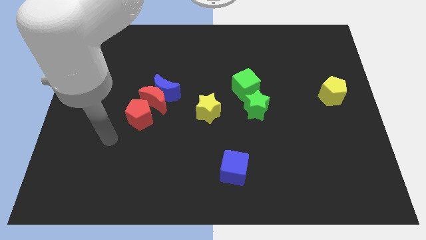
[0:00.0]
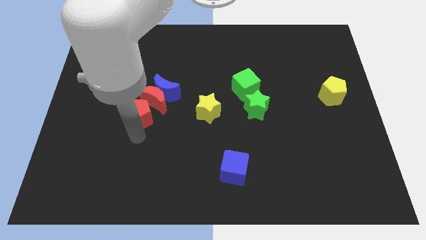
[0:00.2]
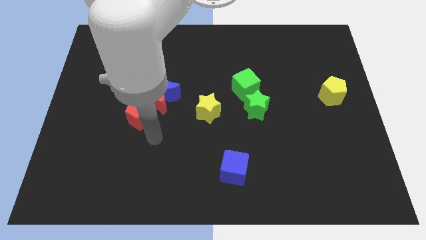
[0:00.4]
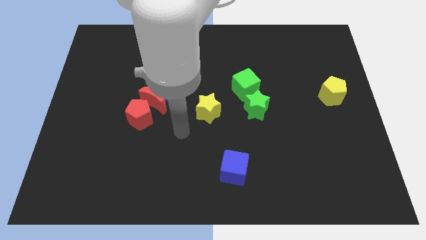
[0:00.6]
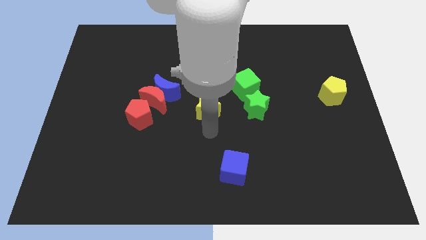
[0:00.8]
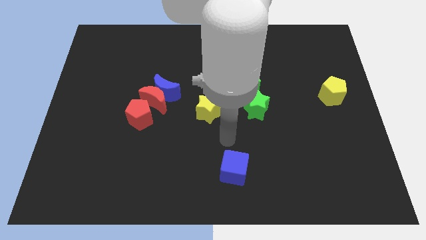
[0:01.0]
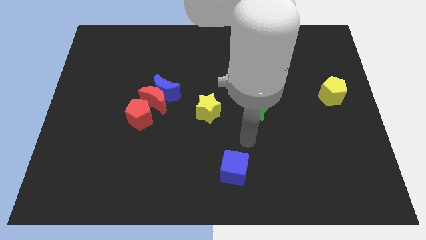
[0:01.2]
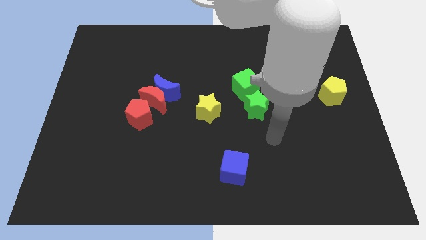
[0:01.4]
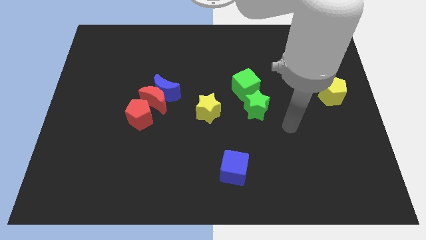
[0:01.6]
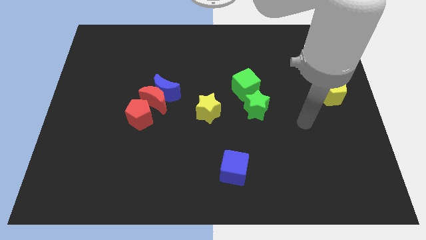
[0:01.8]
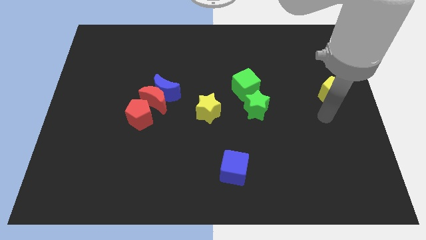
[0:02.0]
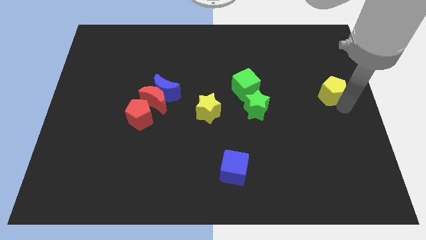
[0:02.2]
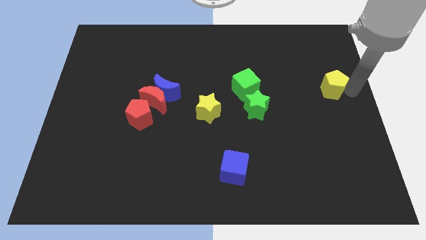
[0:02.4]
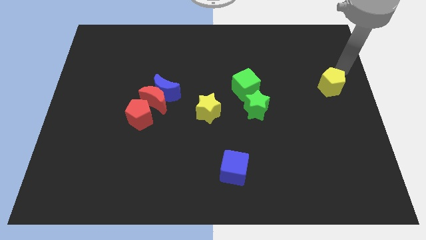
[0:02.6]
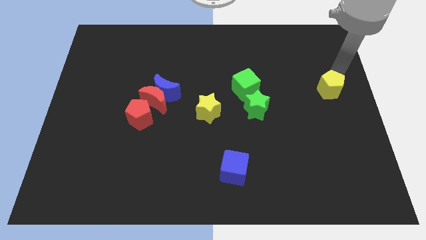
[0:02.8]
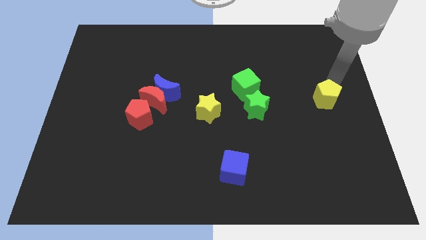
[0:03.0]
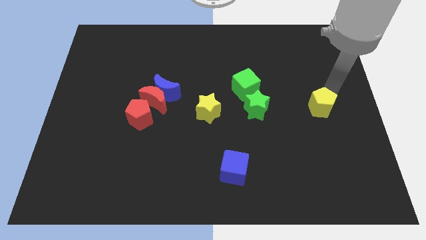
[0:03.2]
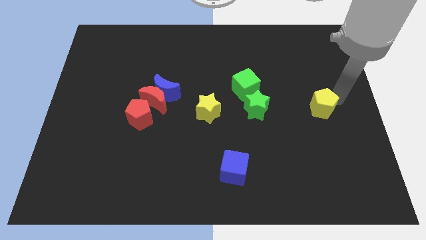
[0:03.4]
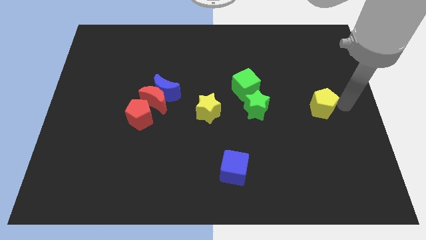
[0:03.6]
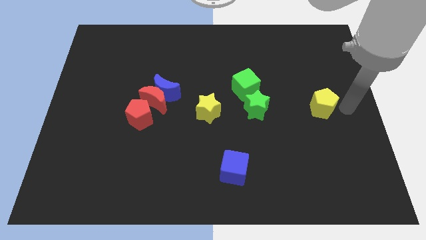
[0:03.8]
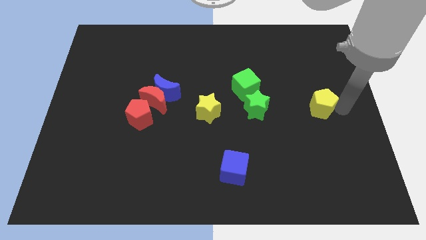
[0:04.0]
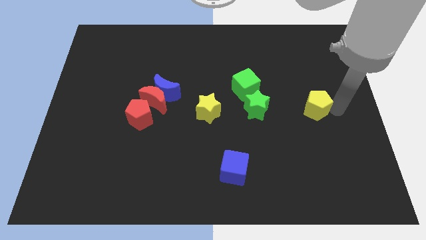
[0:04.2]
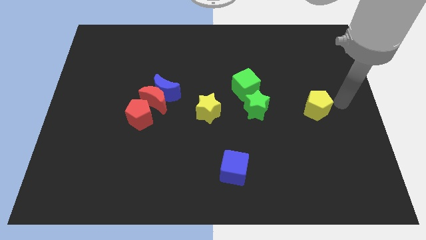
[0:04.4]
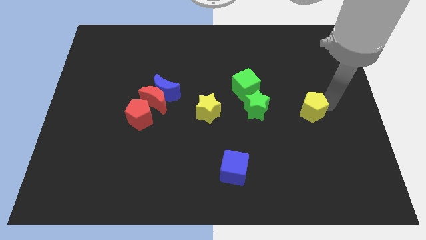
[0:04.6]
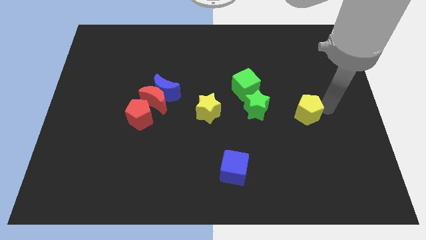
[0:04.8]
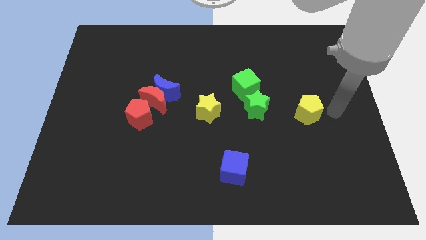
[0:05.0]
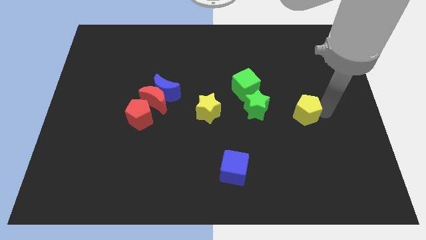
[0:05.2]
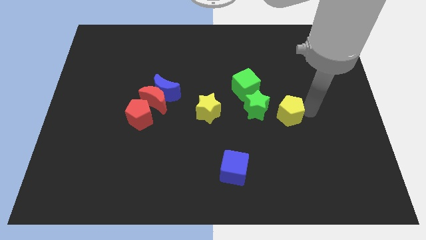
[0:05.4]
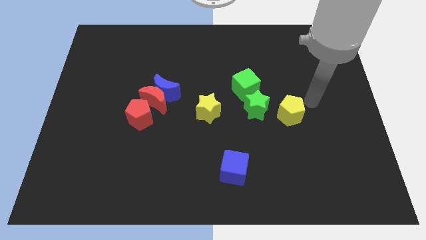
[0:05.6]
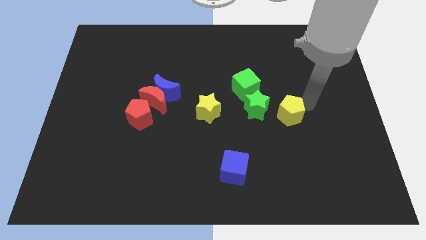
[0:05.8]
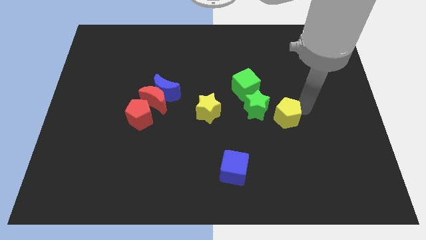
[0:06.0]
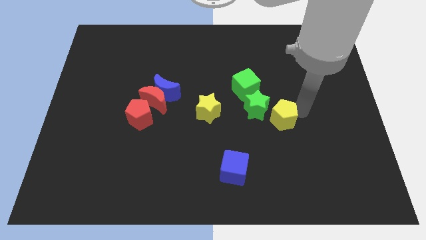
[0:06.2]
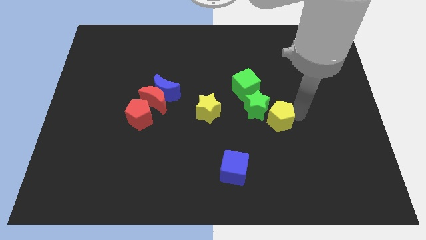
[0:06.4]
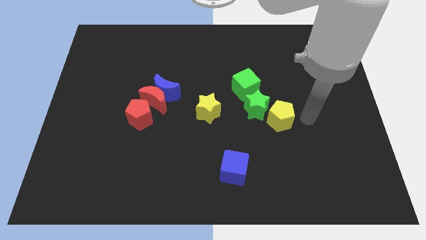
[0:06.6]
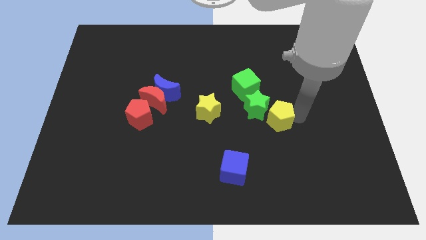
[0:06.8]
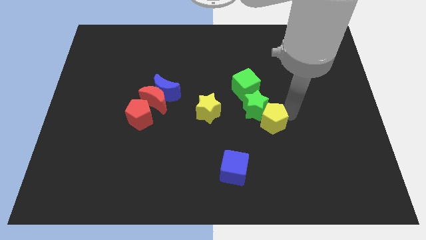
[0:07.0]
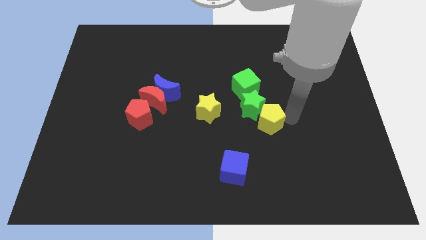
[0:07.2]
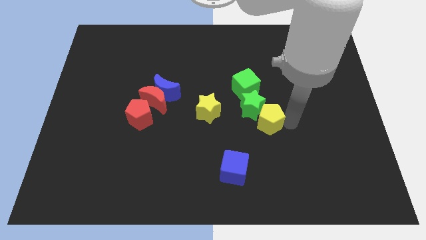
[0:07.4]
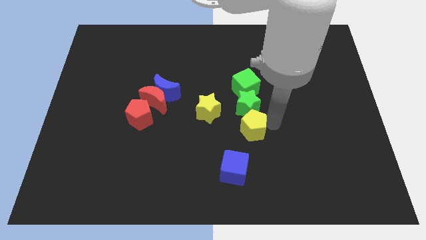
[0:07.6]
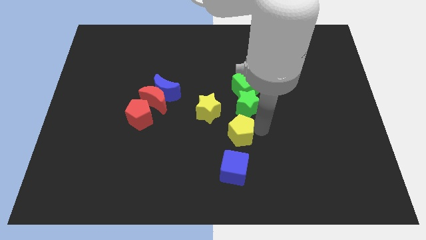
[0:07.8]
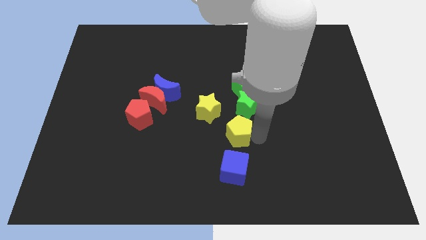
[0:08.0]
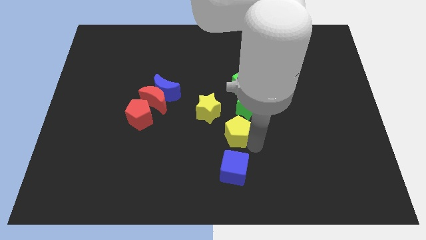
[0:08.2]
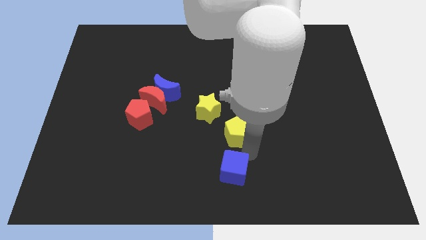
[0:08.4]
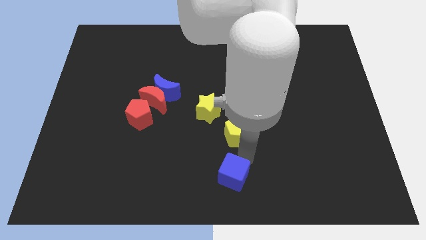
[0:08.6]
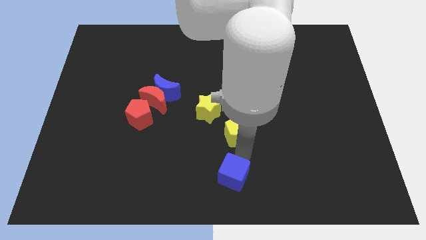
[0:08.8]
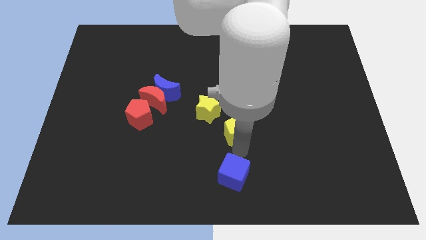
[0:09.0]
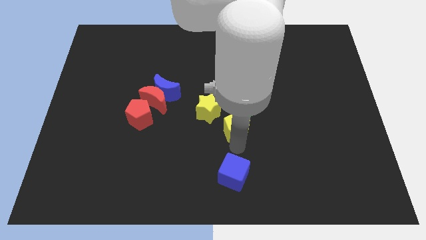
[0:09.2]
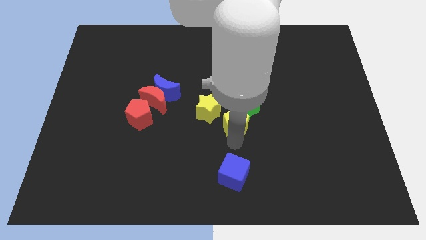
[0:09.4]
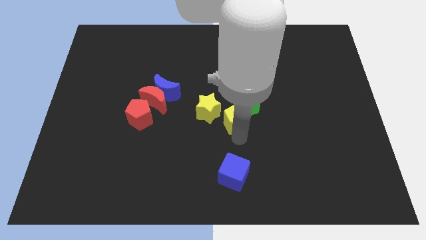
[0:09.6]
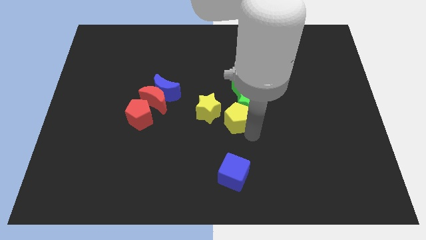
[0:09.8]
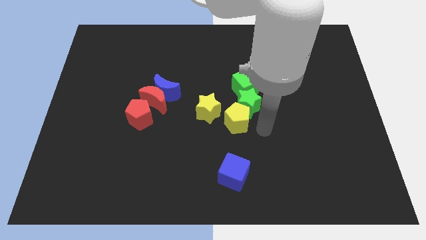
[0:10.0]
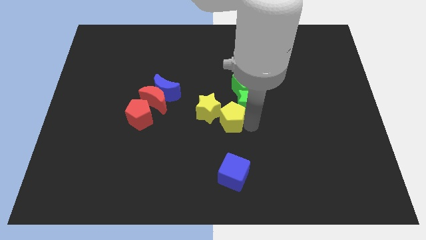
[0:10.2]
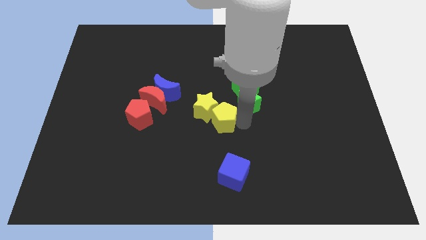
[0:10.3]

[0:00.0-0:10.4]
push the yellow pentagon close to the yellow star

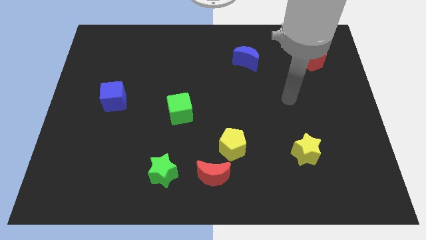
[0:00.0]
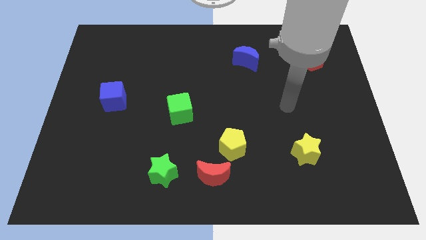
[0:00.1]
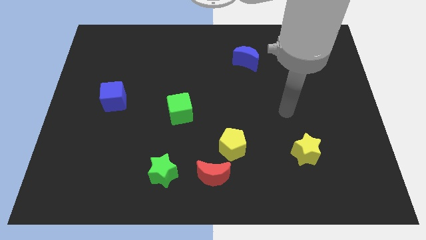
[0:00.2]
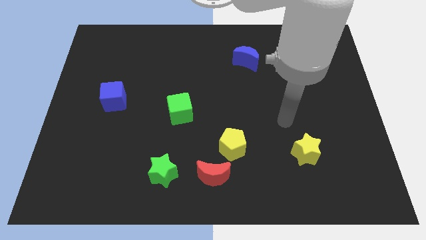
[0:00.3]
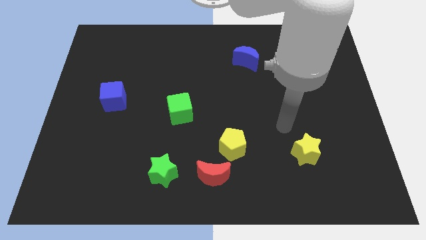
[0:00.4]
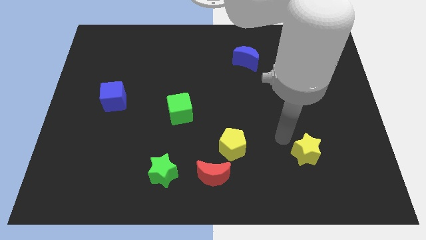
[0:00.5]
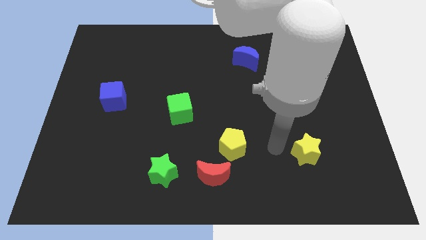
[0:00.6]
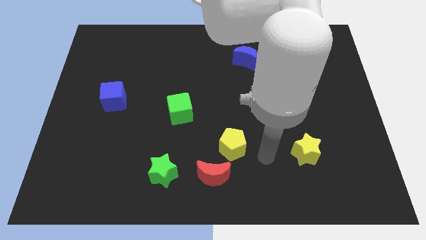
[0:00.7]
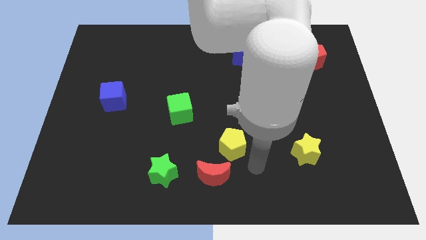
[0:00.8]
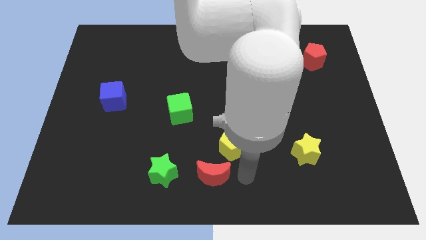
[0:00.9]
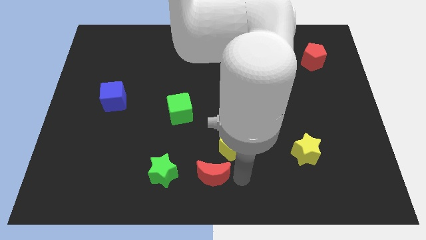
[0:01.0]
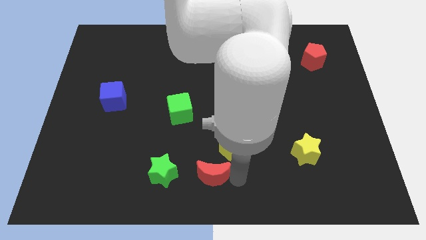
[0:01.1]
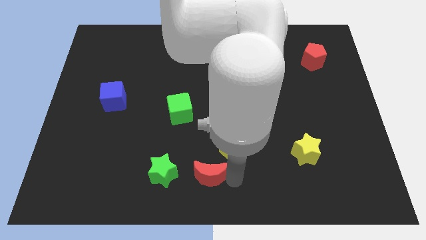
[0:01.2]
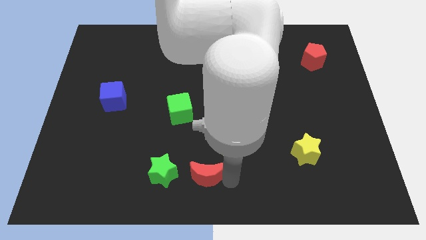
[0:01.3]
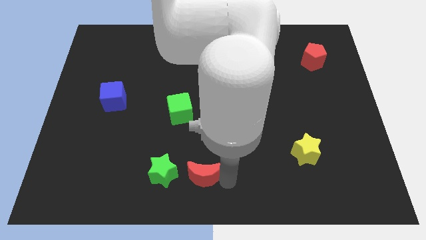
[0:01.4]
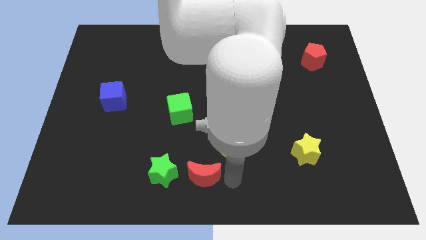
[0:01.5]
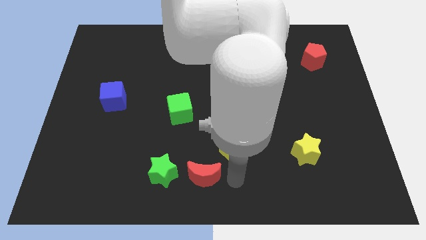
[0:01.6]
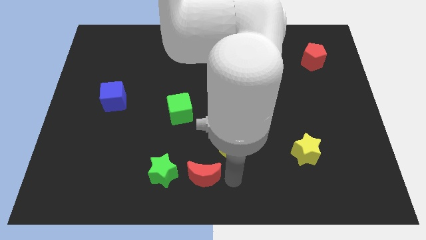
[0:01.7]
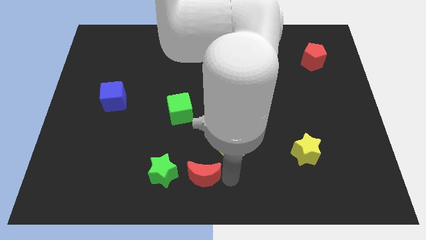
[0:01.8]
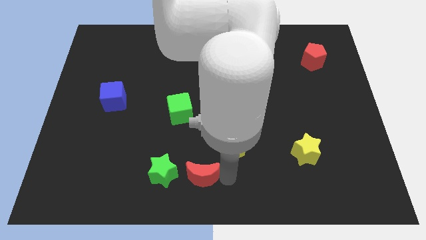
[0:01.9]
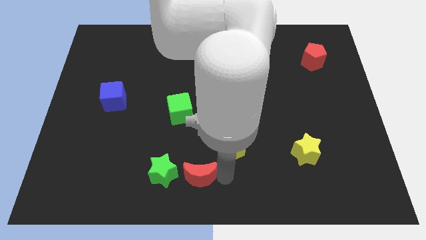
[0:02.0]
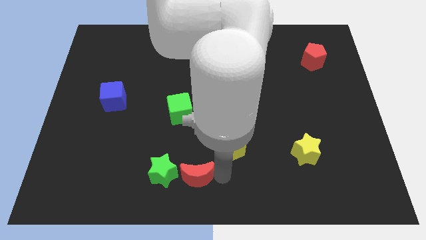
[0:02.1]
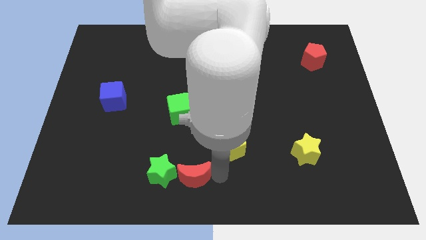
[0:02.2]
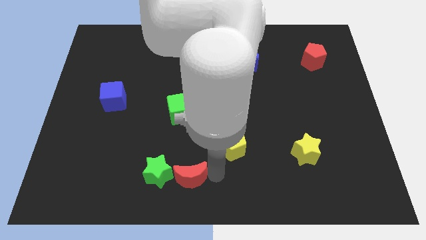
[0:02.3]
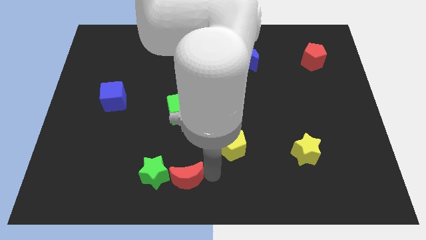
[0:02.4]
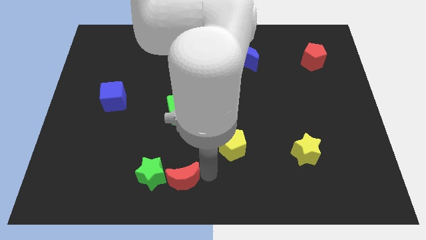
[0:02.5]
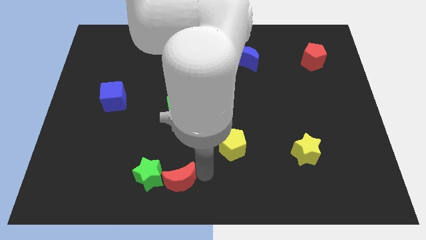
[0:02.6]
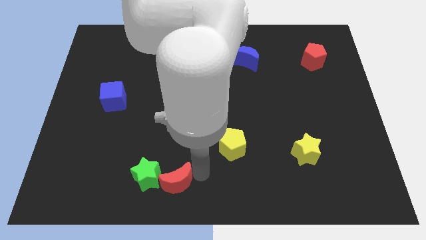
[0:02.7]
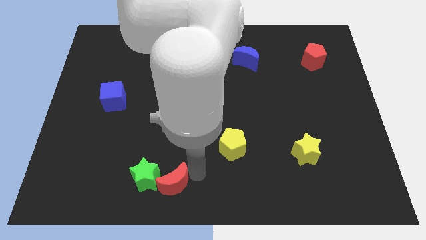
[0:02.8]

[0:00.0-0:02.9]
put the red moon towards the green star
